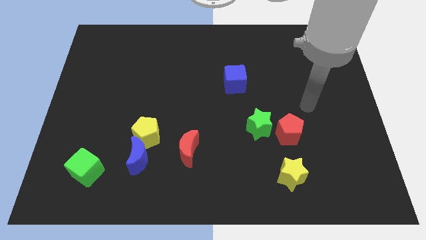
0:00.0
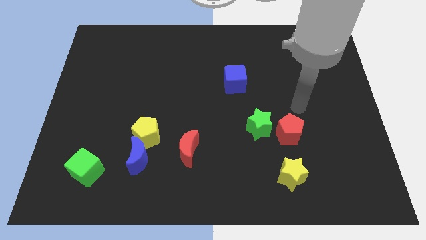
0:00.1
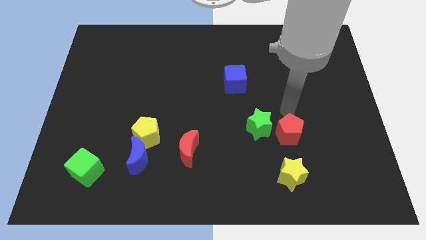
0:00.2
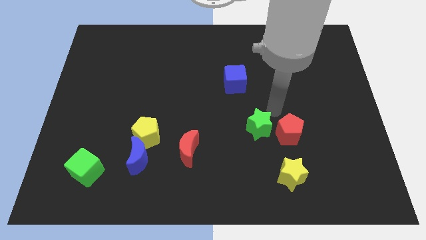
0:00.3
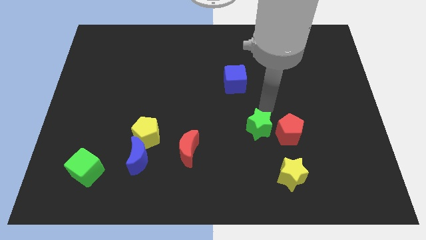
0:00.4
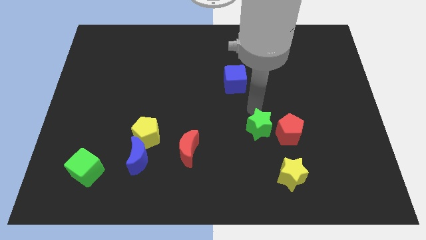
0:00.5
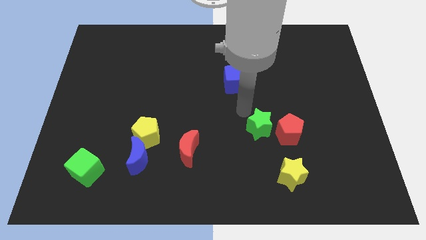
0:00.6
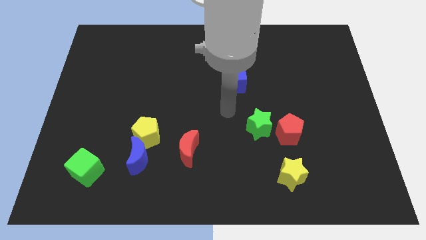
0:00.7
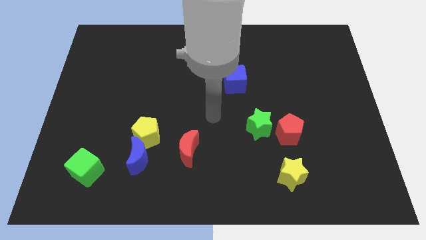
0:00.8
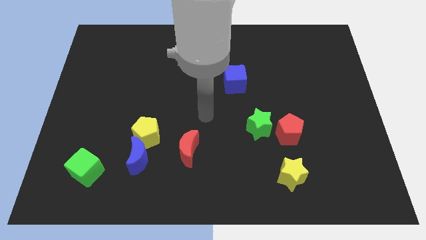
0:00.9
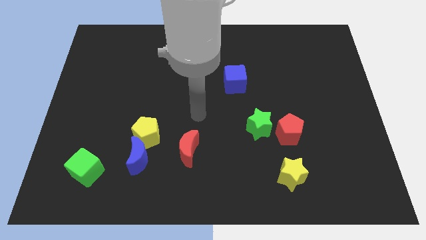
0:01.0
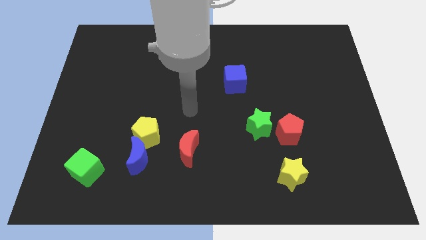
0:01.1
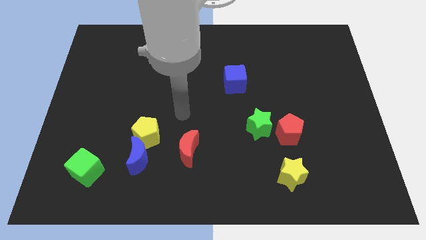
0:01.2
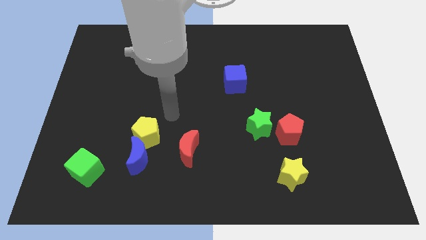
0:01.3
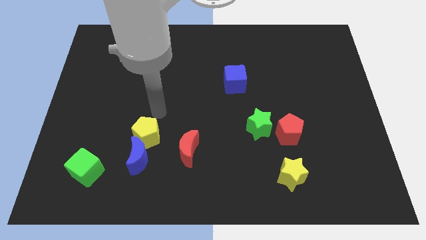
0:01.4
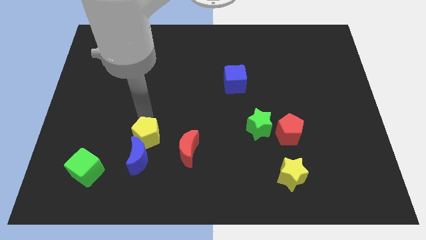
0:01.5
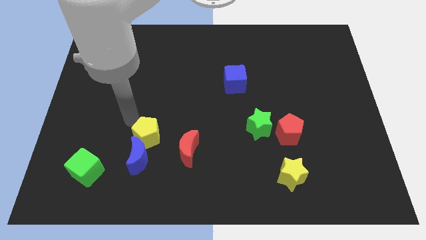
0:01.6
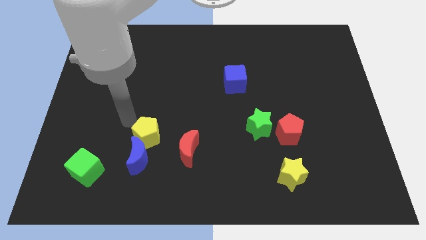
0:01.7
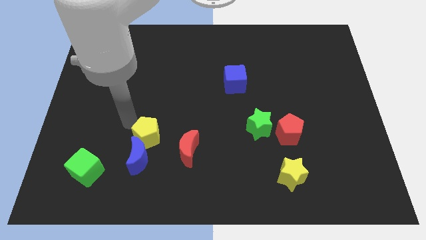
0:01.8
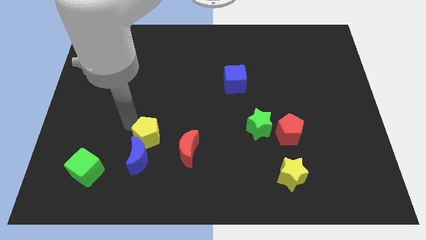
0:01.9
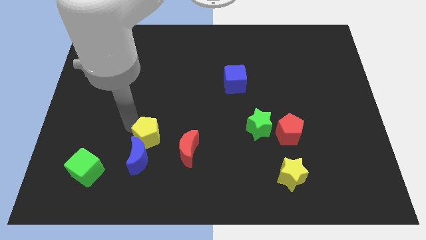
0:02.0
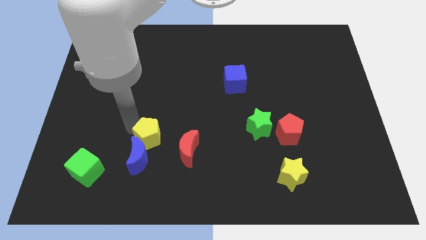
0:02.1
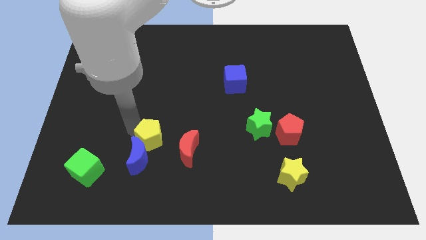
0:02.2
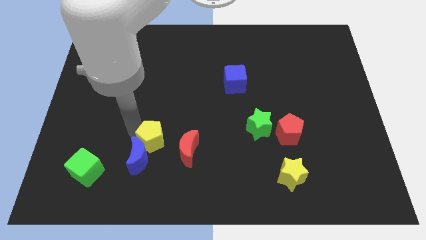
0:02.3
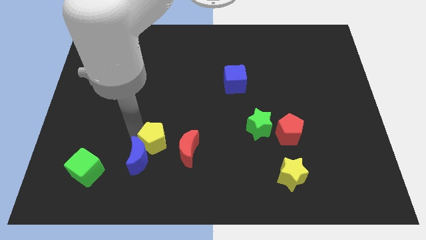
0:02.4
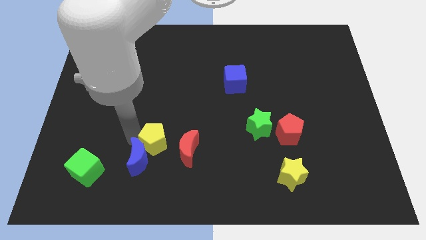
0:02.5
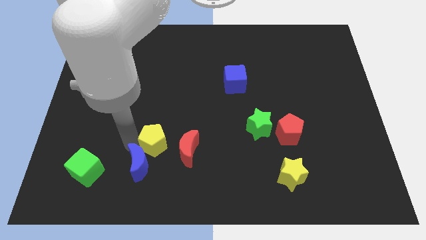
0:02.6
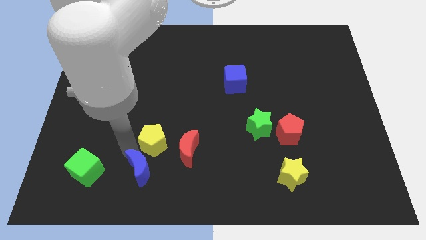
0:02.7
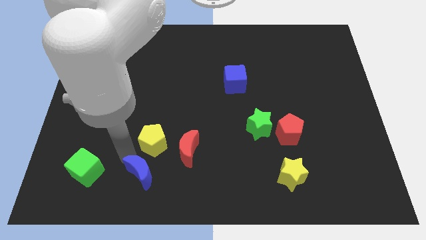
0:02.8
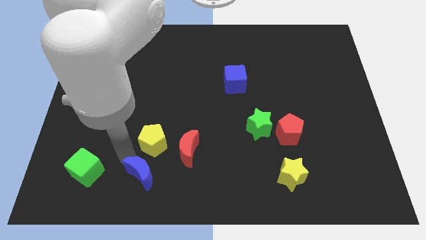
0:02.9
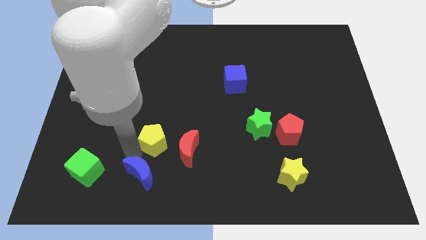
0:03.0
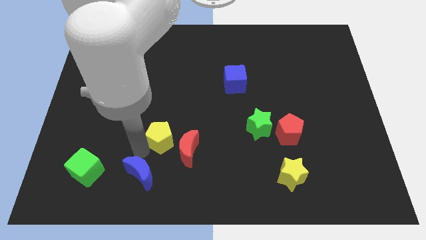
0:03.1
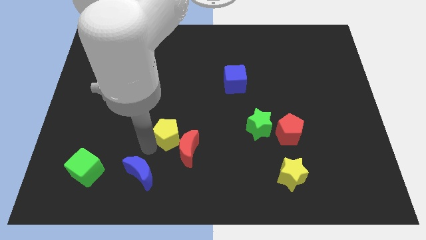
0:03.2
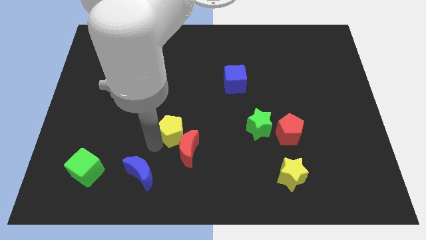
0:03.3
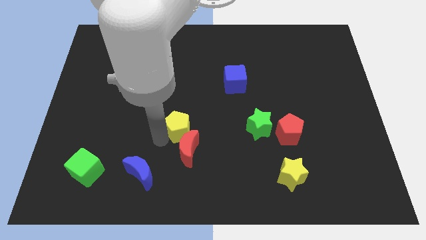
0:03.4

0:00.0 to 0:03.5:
slightly move the yellow pentagon right

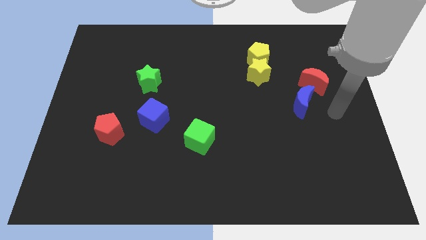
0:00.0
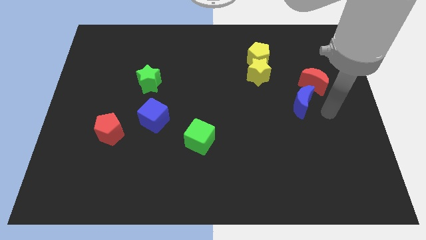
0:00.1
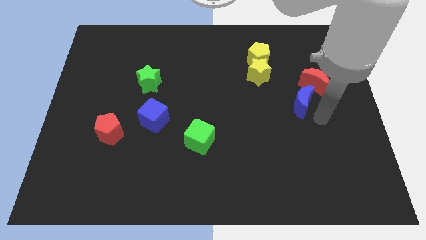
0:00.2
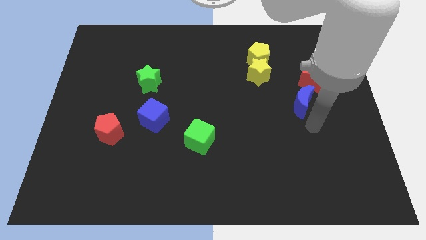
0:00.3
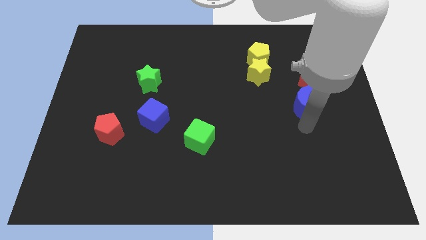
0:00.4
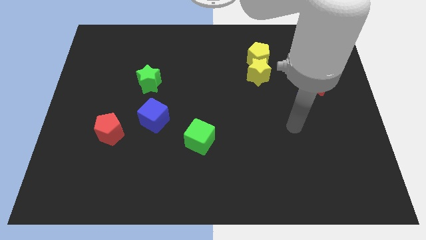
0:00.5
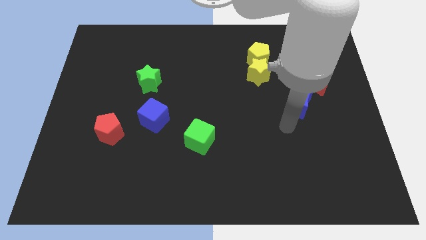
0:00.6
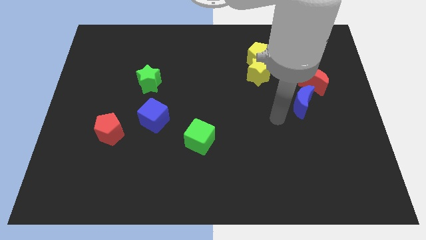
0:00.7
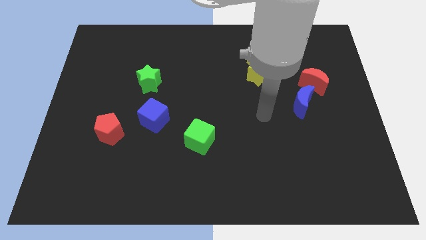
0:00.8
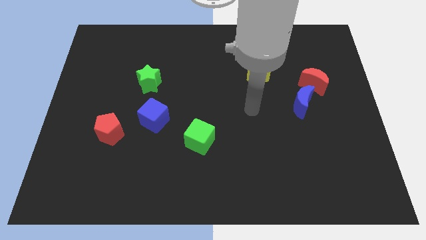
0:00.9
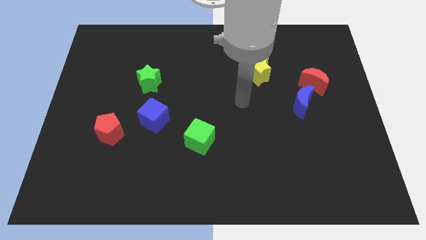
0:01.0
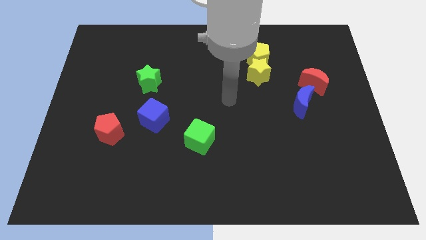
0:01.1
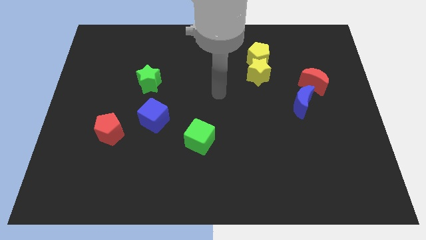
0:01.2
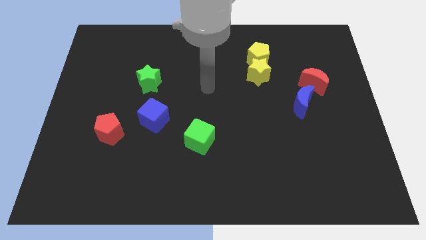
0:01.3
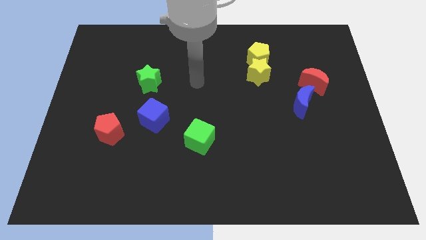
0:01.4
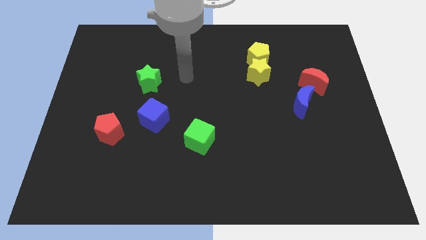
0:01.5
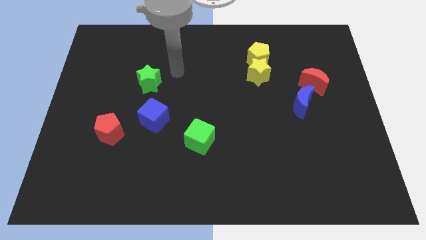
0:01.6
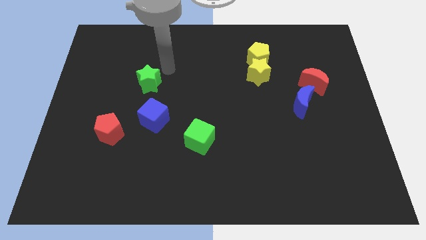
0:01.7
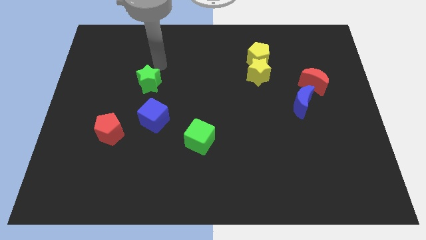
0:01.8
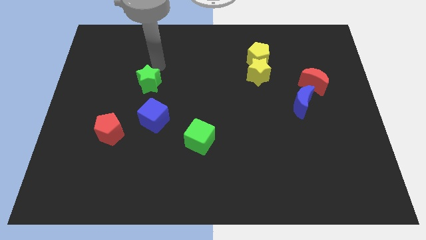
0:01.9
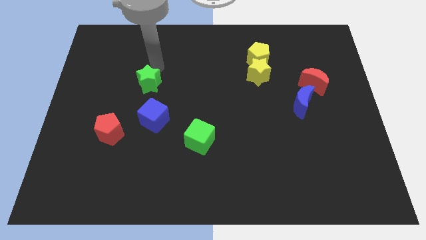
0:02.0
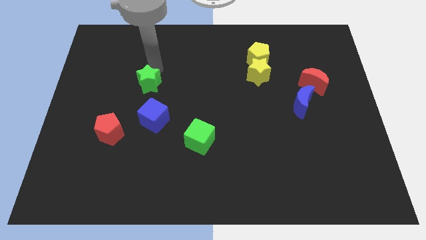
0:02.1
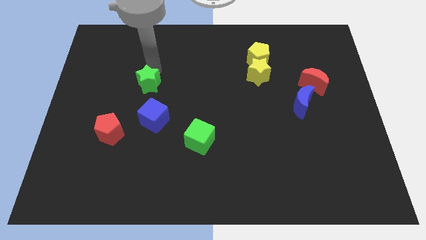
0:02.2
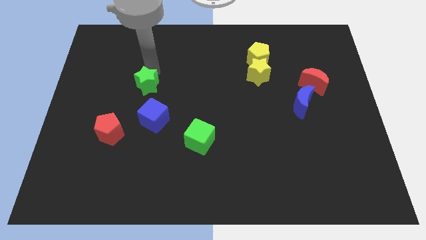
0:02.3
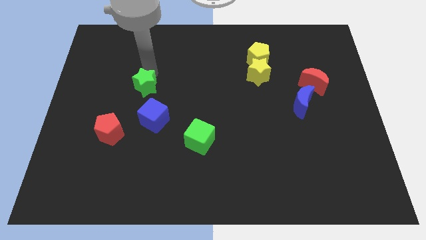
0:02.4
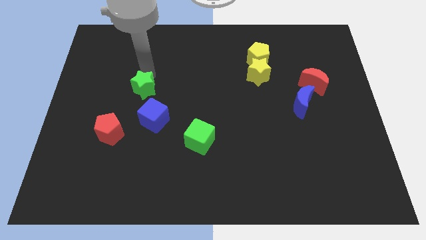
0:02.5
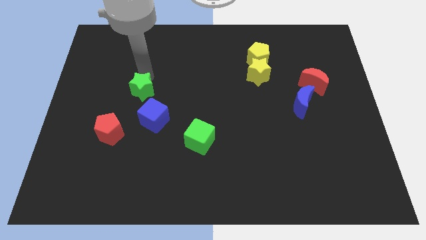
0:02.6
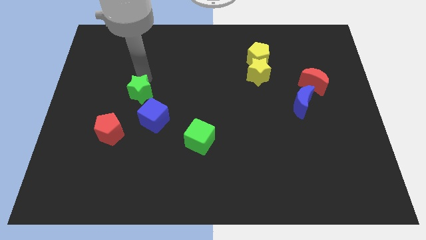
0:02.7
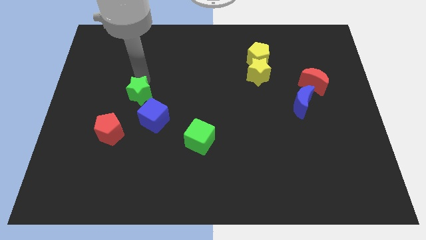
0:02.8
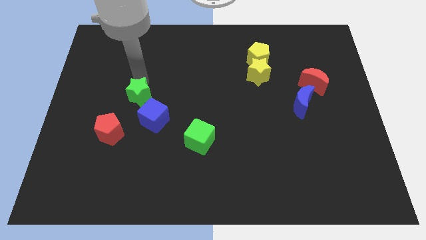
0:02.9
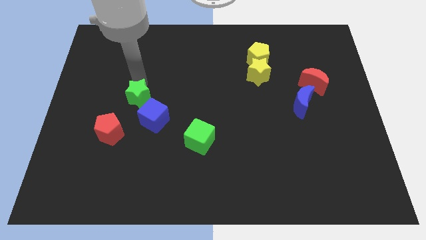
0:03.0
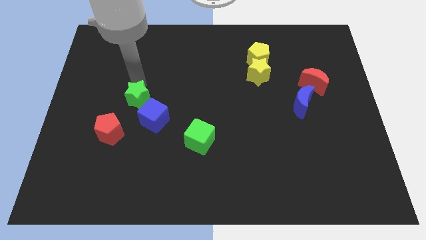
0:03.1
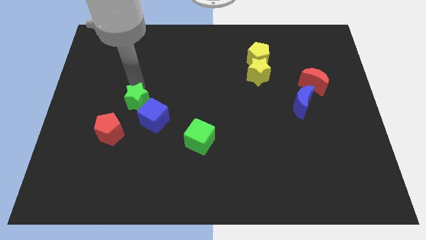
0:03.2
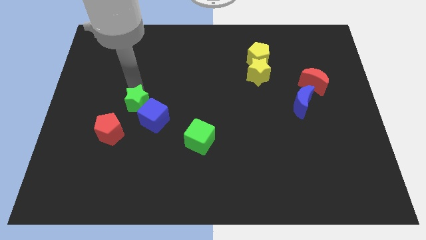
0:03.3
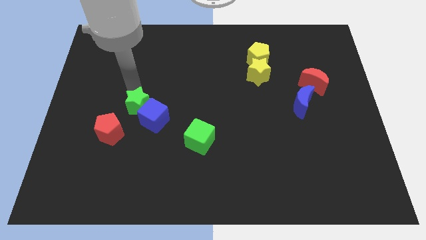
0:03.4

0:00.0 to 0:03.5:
push the green star down slightly

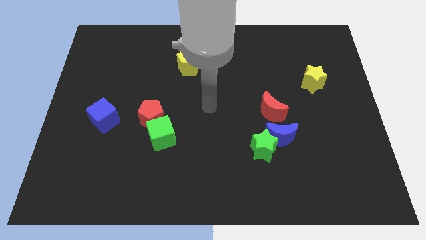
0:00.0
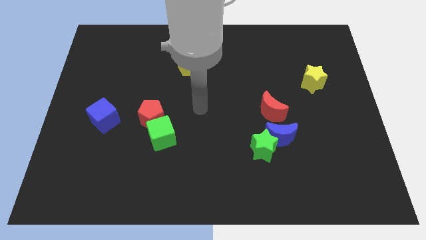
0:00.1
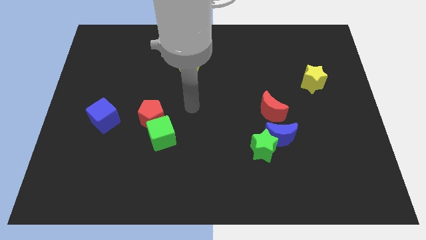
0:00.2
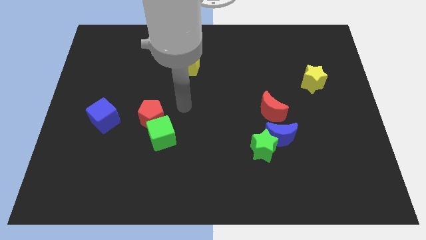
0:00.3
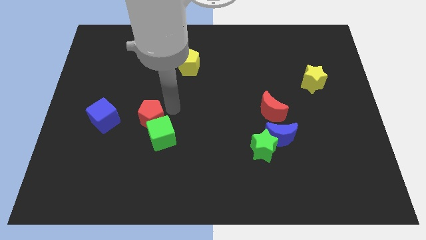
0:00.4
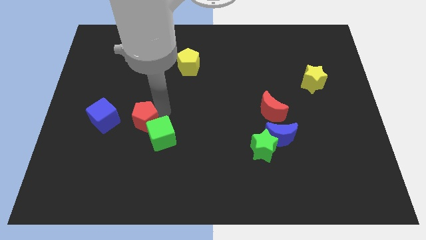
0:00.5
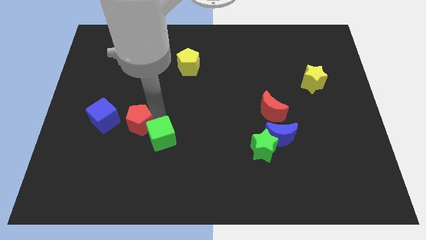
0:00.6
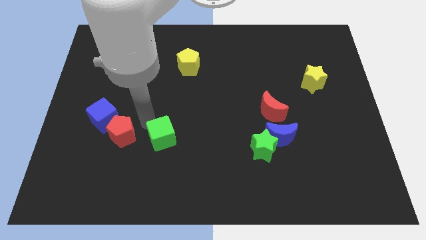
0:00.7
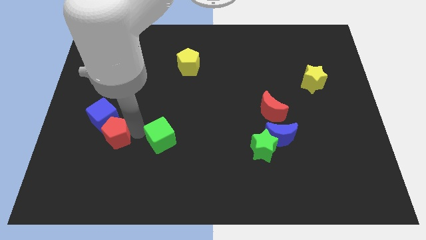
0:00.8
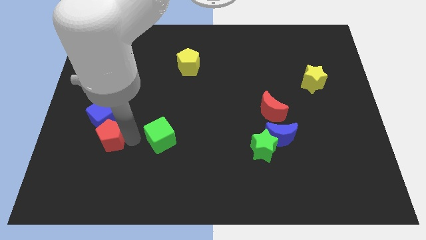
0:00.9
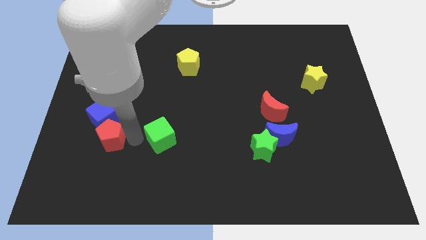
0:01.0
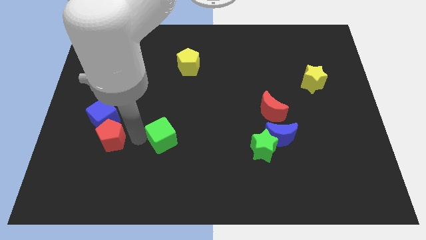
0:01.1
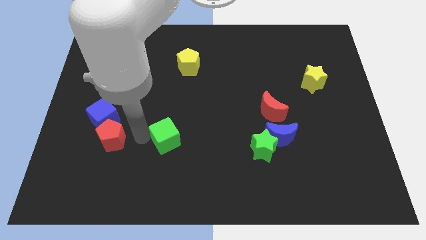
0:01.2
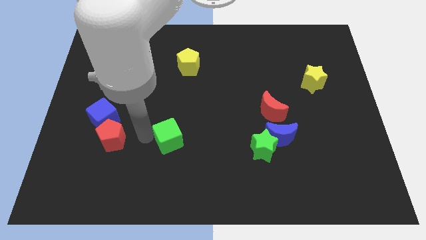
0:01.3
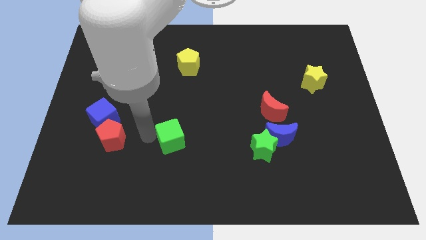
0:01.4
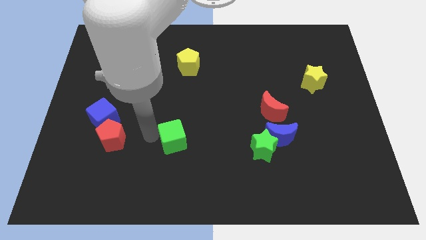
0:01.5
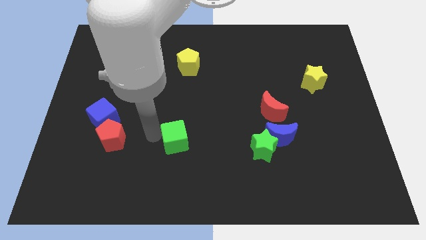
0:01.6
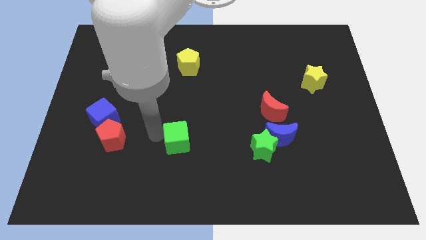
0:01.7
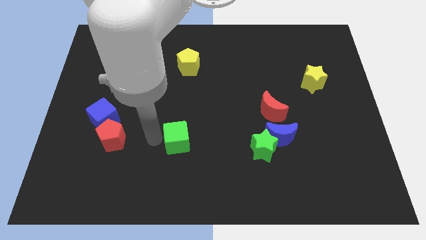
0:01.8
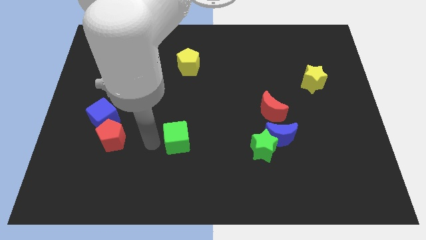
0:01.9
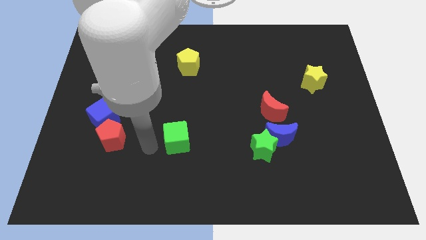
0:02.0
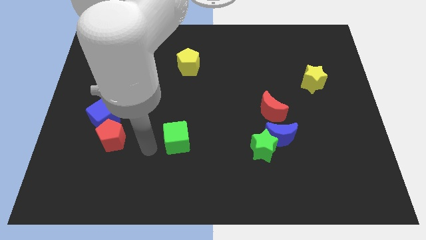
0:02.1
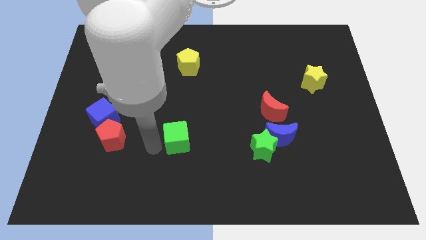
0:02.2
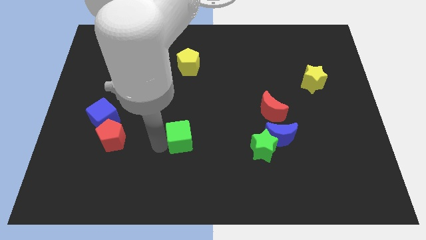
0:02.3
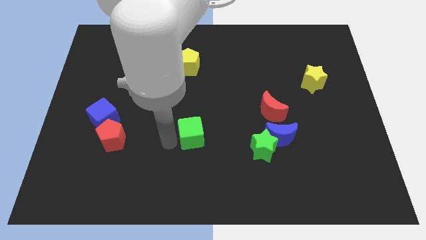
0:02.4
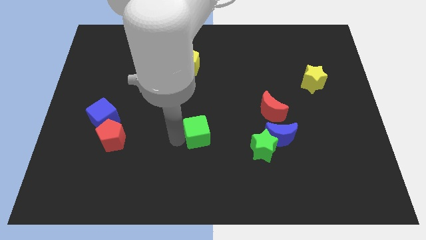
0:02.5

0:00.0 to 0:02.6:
push the green cube right a little
